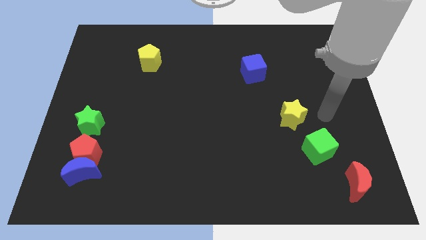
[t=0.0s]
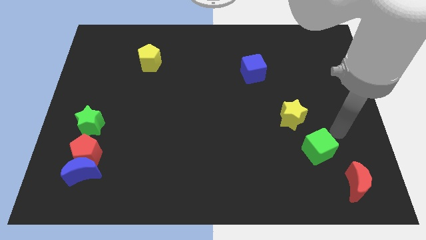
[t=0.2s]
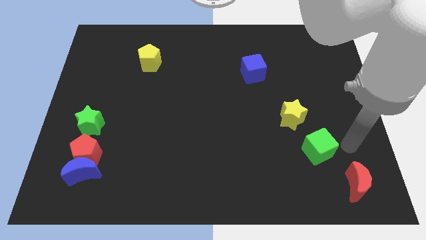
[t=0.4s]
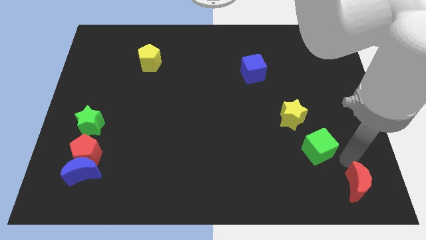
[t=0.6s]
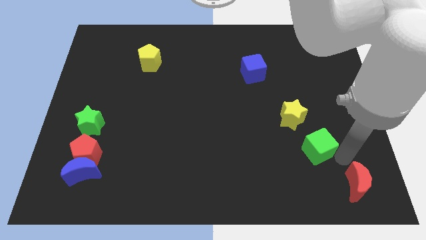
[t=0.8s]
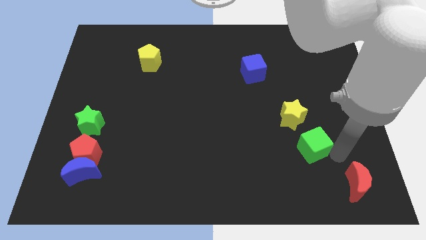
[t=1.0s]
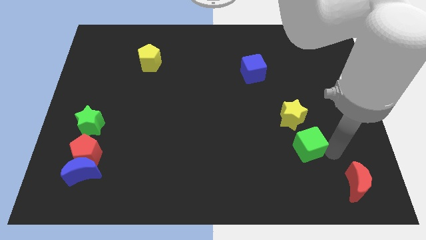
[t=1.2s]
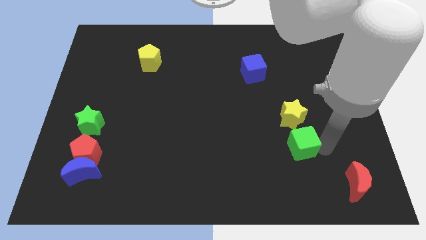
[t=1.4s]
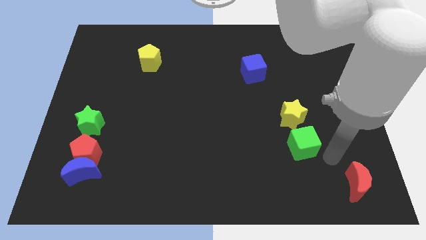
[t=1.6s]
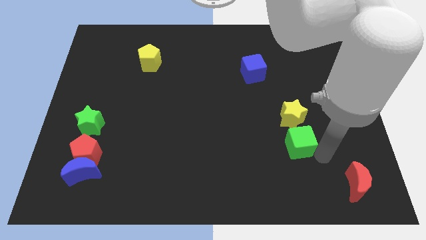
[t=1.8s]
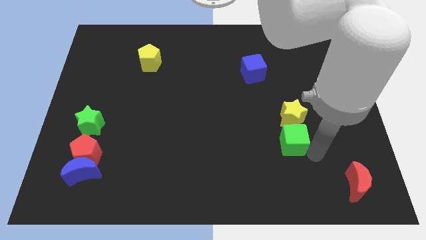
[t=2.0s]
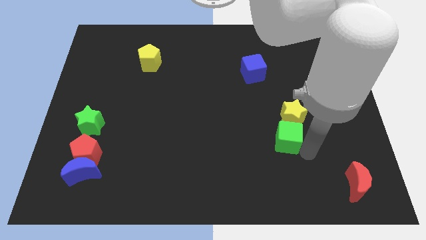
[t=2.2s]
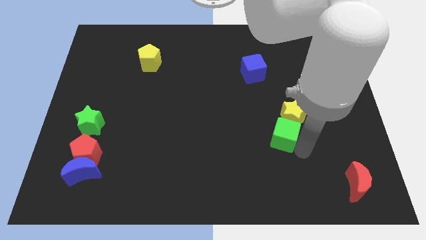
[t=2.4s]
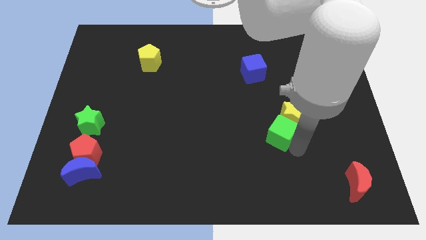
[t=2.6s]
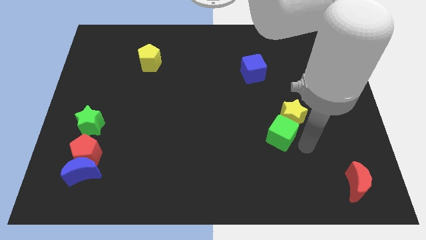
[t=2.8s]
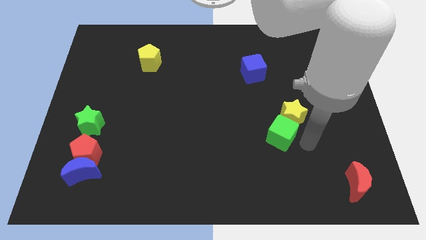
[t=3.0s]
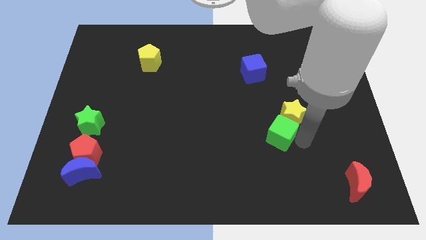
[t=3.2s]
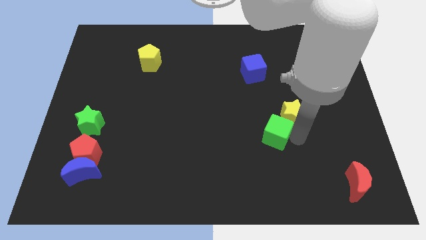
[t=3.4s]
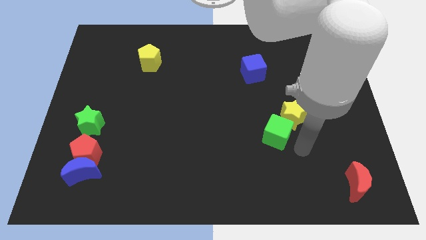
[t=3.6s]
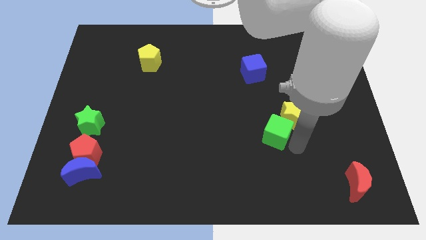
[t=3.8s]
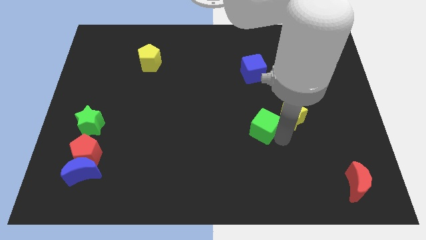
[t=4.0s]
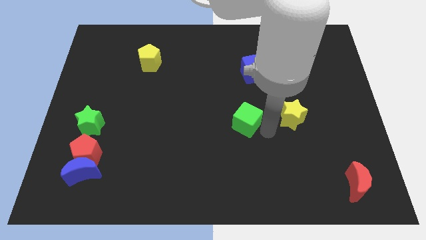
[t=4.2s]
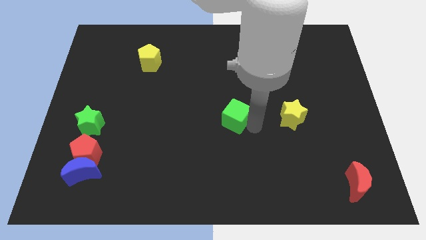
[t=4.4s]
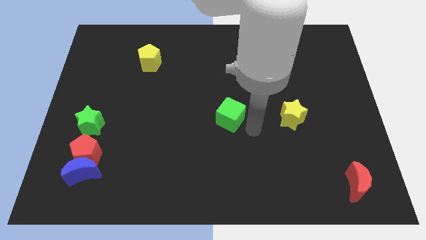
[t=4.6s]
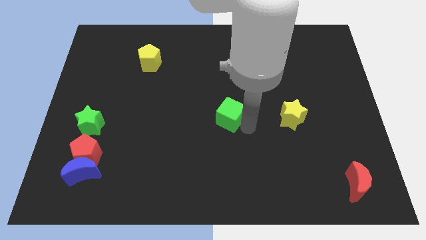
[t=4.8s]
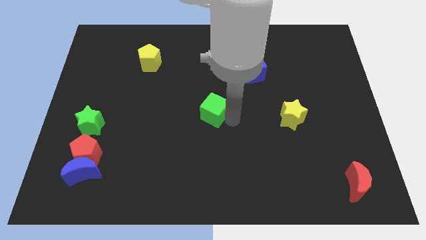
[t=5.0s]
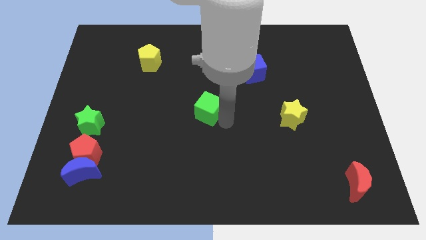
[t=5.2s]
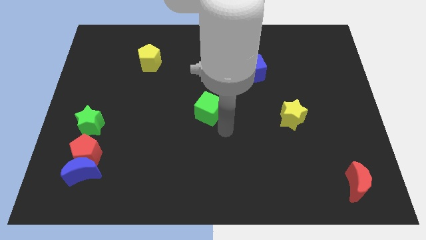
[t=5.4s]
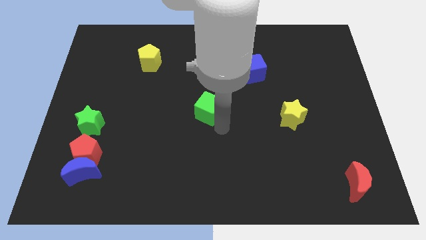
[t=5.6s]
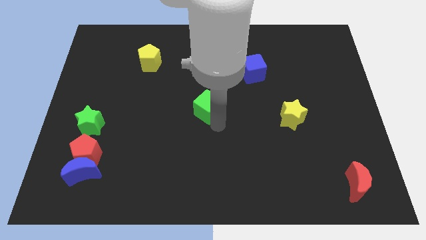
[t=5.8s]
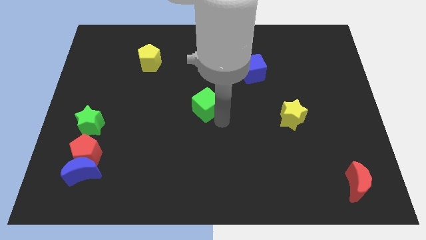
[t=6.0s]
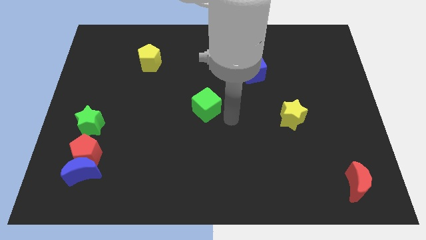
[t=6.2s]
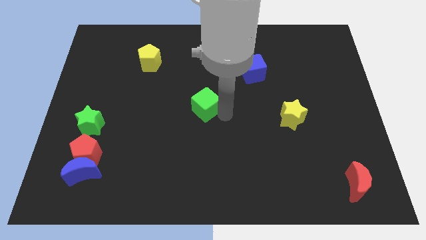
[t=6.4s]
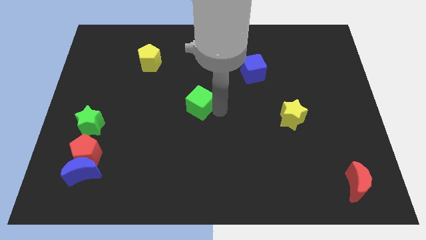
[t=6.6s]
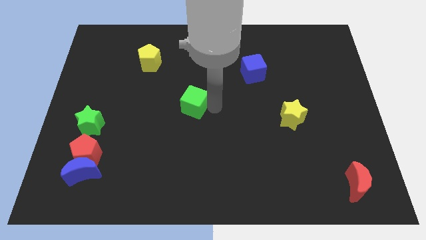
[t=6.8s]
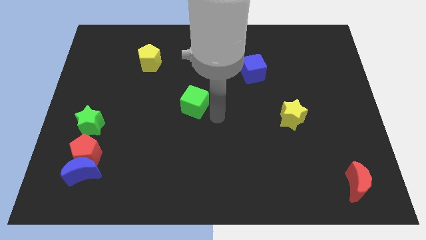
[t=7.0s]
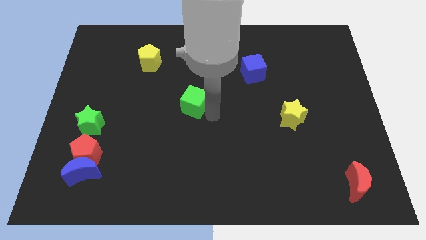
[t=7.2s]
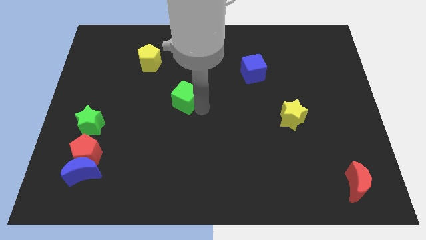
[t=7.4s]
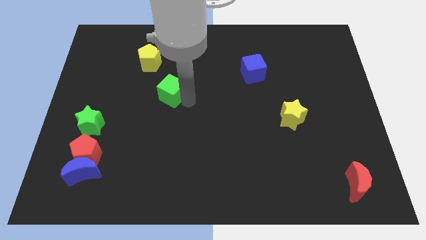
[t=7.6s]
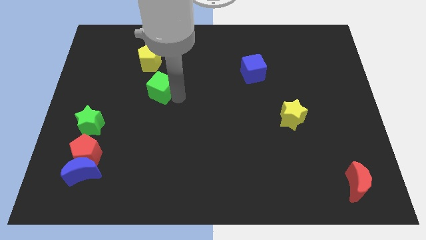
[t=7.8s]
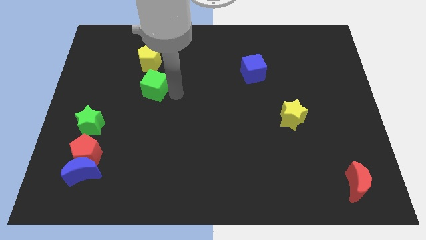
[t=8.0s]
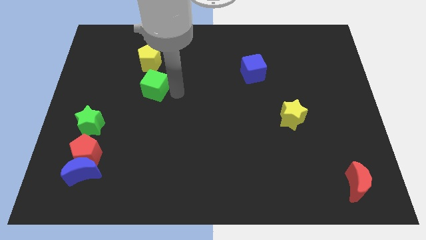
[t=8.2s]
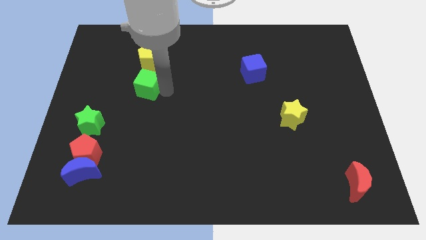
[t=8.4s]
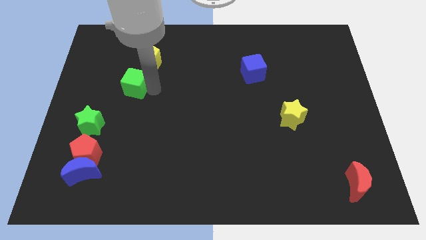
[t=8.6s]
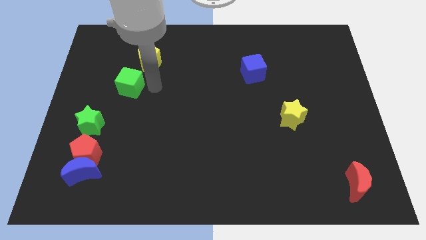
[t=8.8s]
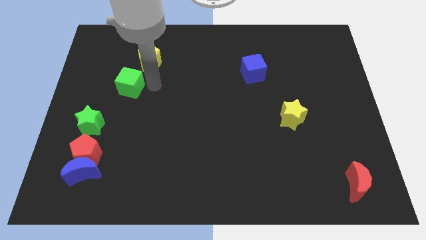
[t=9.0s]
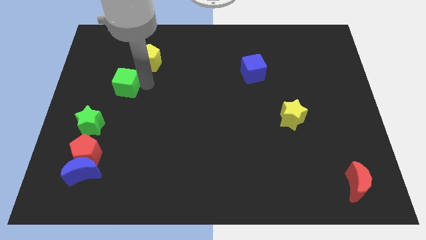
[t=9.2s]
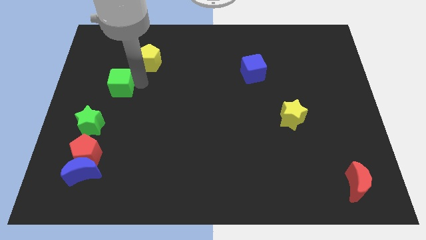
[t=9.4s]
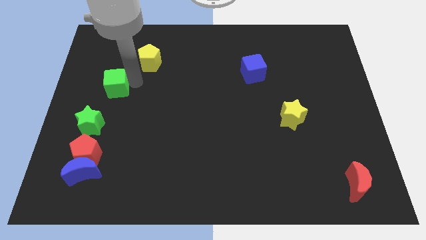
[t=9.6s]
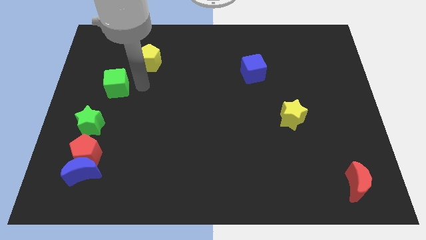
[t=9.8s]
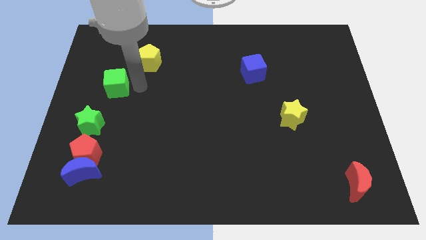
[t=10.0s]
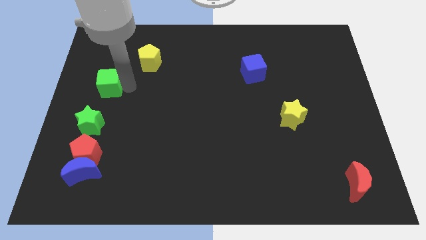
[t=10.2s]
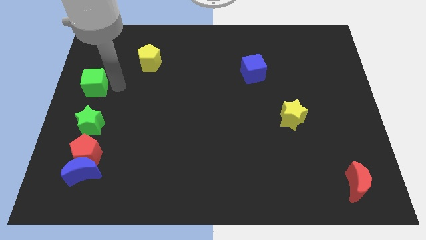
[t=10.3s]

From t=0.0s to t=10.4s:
slide the green cube to the center left

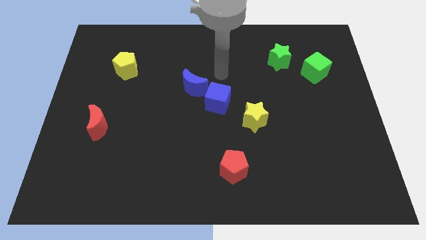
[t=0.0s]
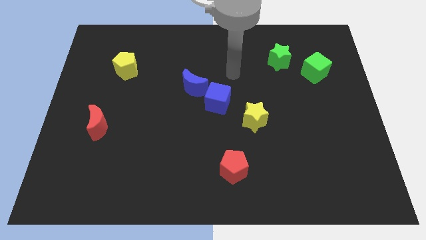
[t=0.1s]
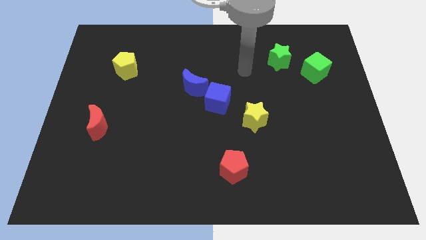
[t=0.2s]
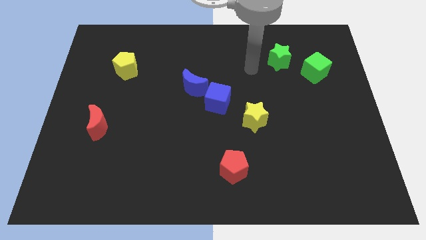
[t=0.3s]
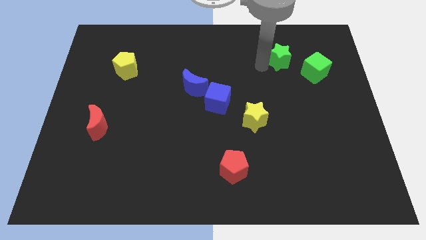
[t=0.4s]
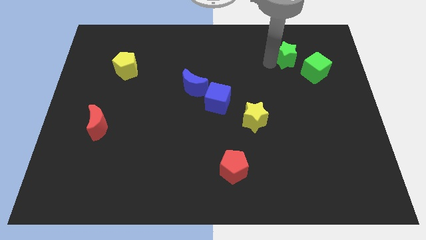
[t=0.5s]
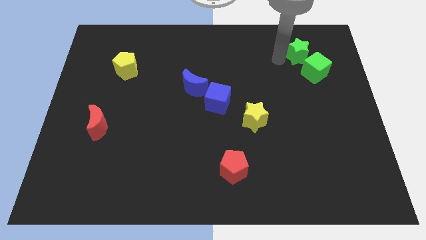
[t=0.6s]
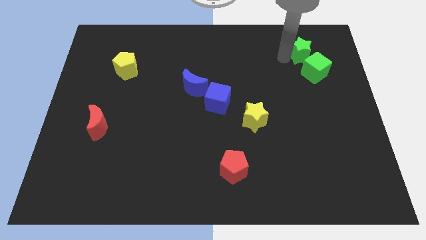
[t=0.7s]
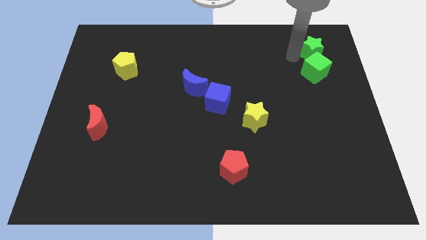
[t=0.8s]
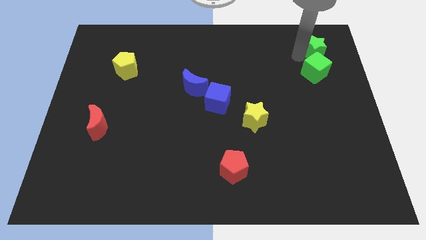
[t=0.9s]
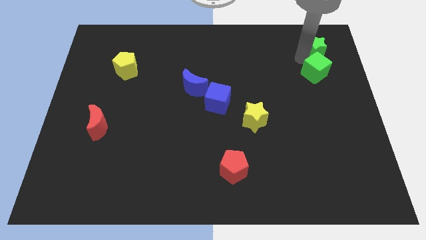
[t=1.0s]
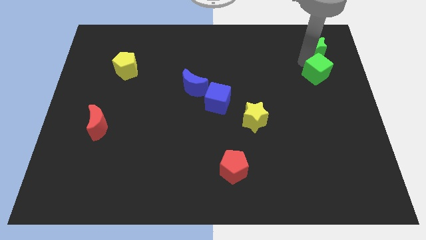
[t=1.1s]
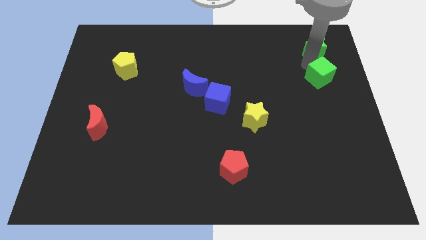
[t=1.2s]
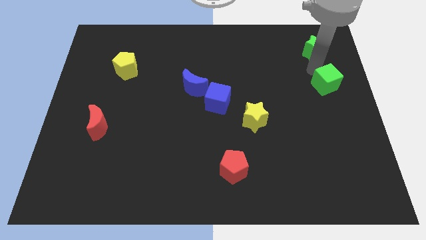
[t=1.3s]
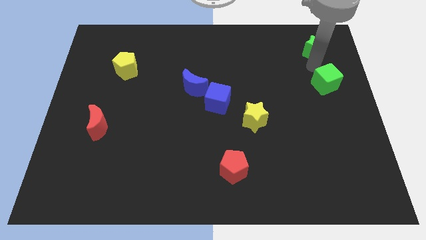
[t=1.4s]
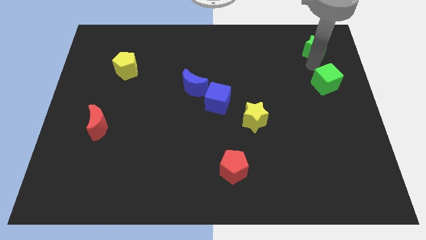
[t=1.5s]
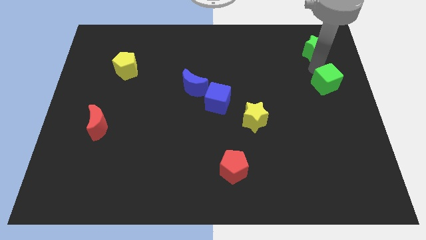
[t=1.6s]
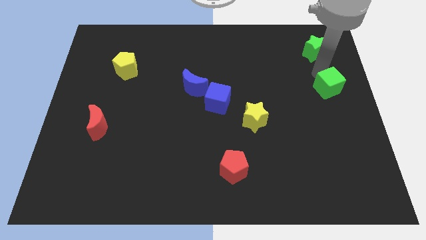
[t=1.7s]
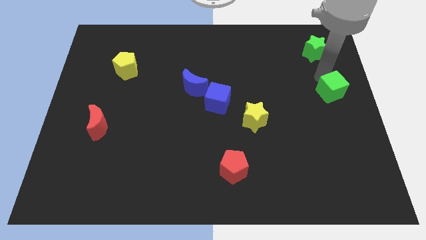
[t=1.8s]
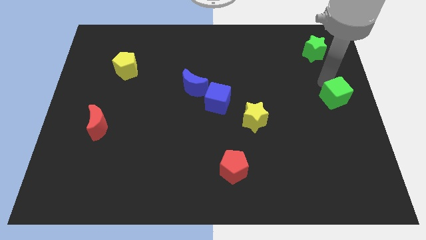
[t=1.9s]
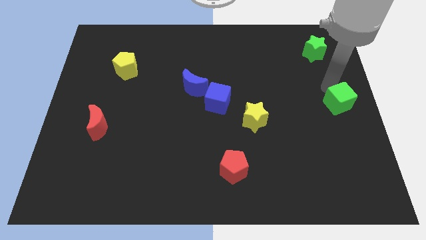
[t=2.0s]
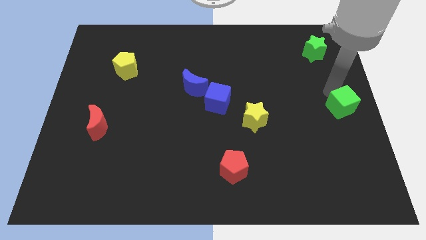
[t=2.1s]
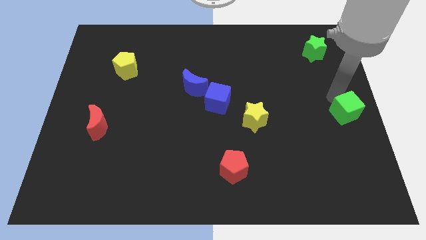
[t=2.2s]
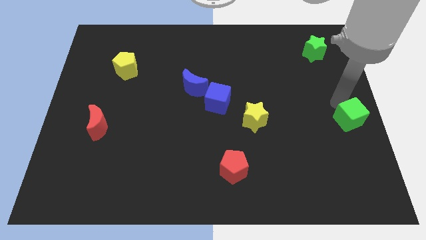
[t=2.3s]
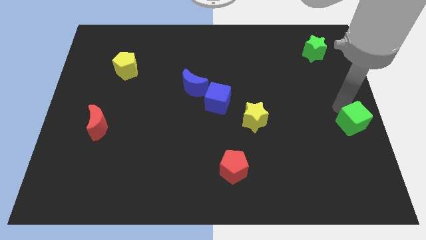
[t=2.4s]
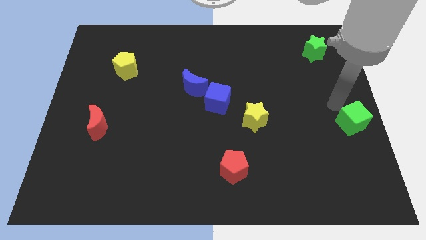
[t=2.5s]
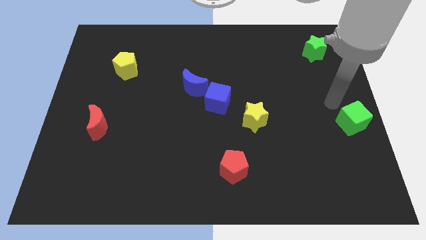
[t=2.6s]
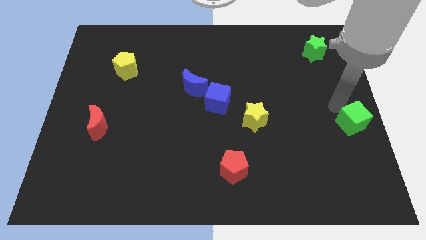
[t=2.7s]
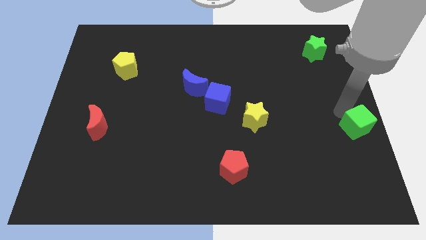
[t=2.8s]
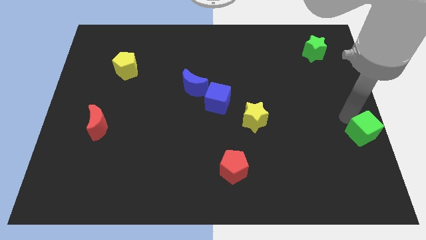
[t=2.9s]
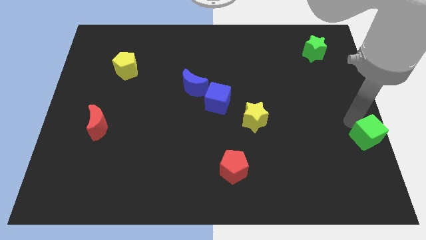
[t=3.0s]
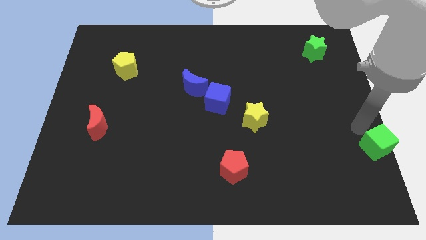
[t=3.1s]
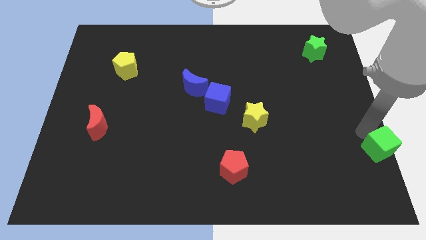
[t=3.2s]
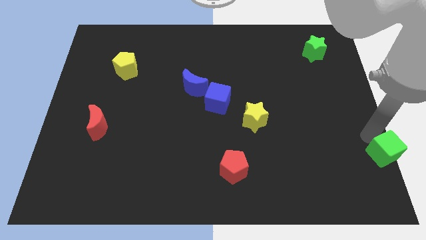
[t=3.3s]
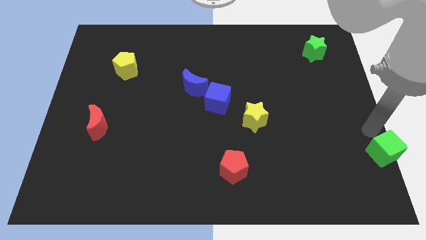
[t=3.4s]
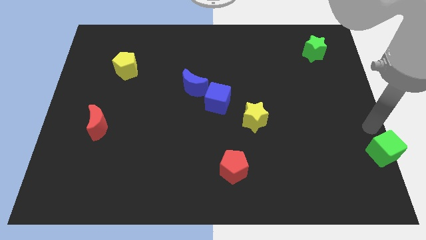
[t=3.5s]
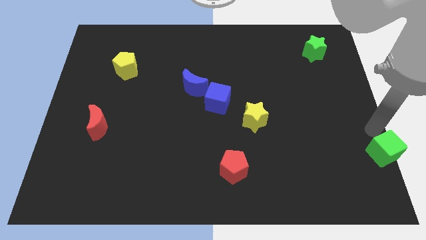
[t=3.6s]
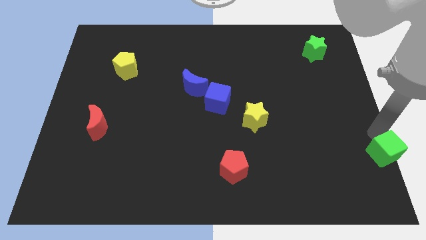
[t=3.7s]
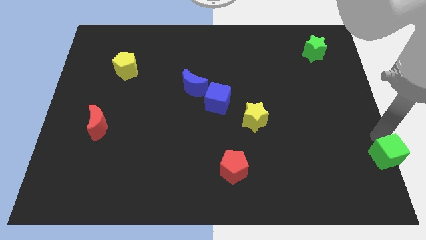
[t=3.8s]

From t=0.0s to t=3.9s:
slide the green cube to the bottom right
